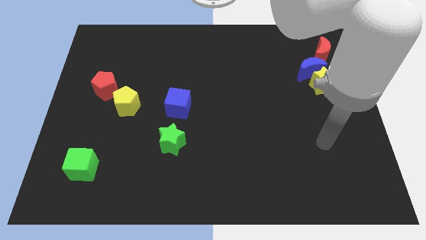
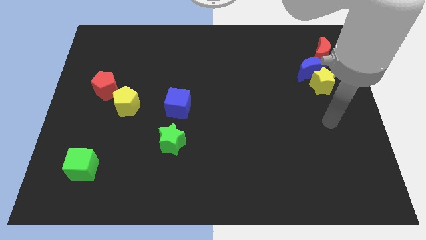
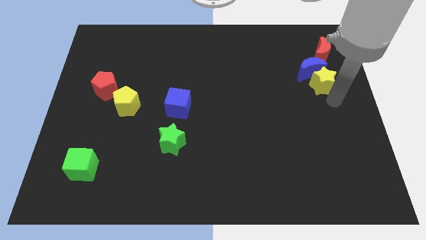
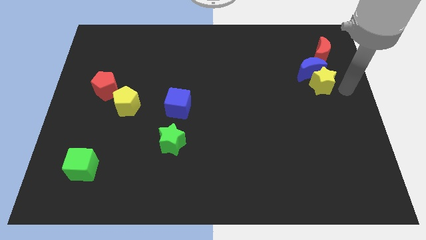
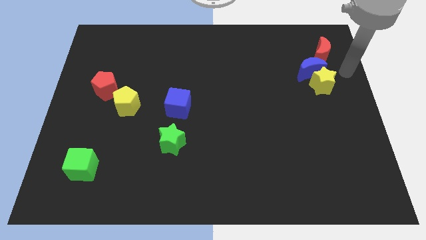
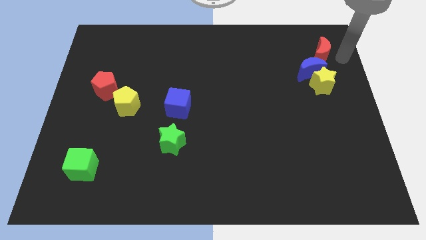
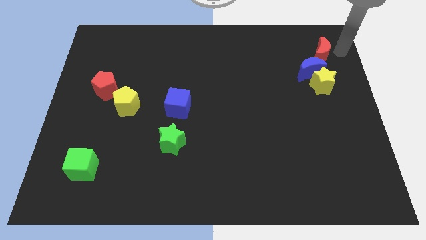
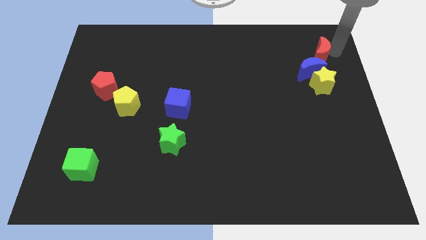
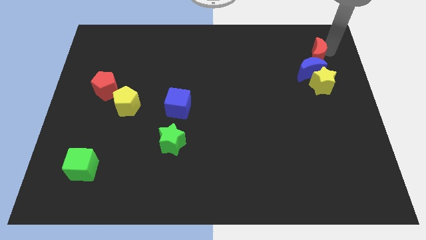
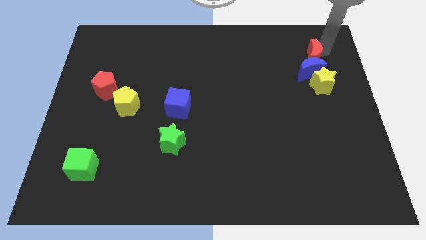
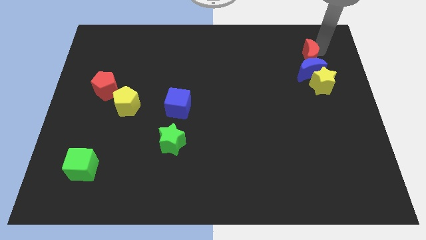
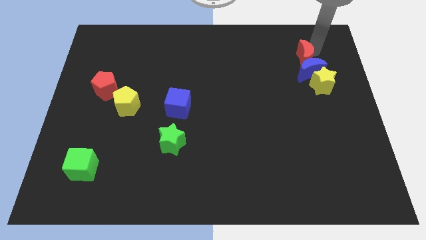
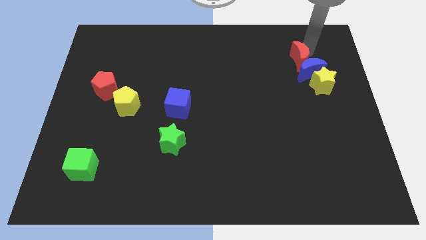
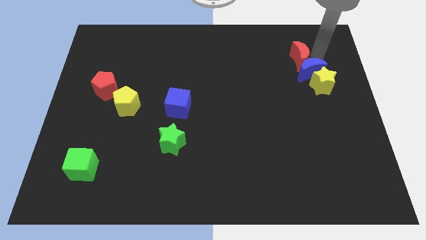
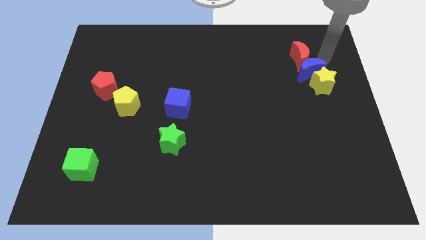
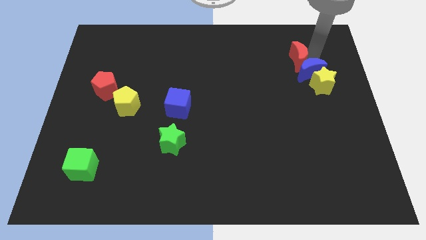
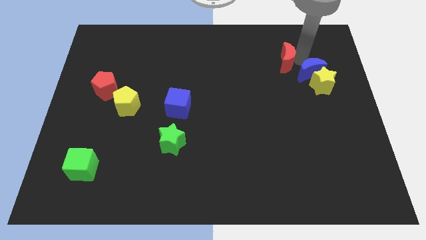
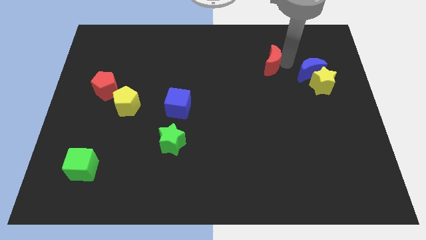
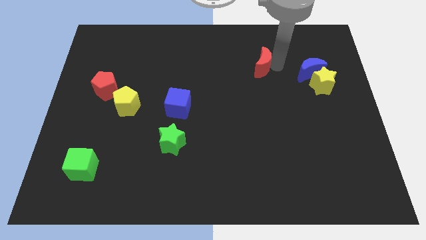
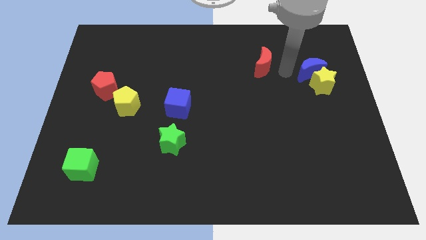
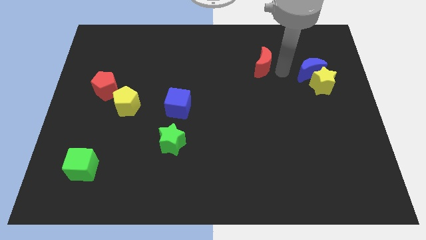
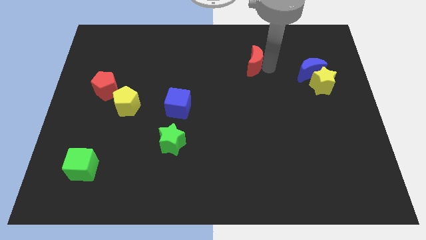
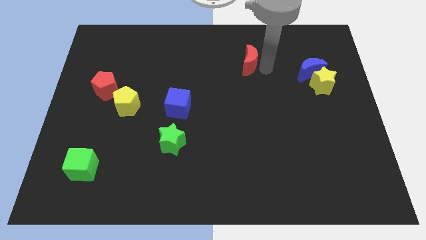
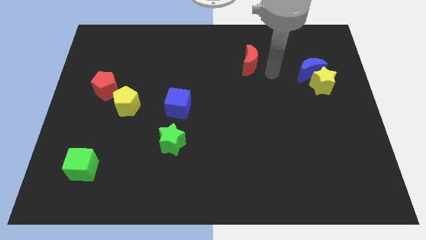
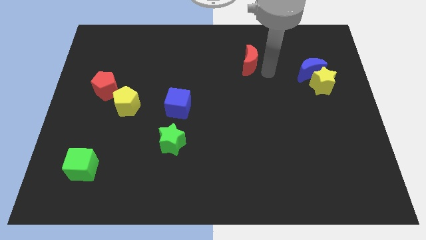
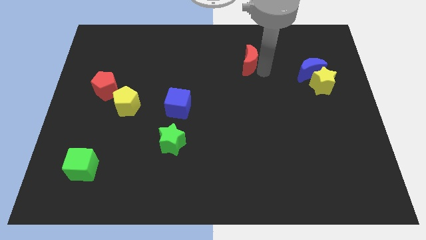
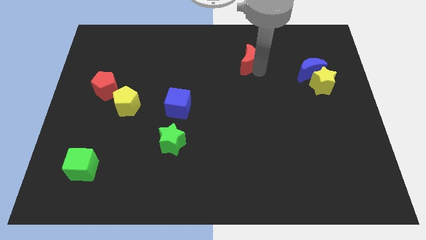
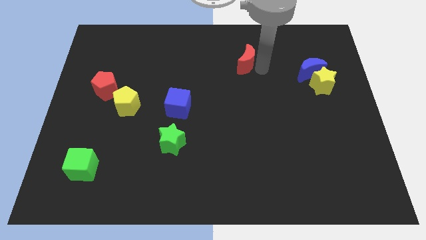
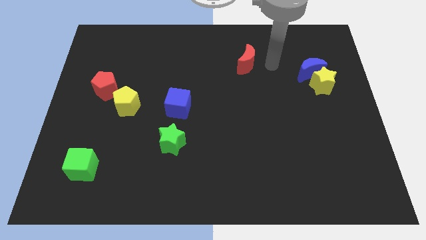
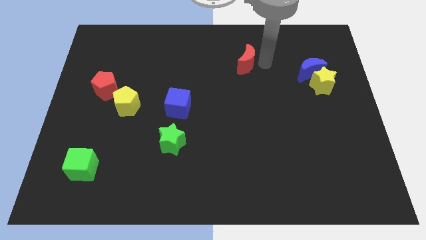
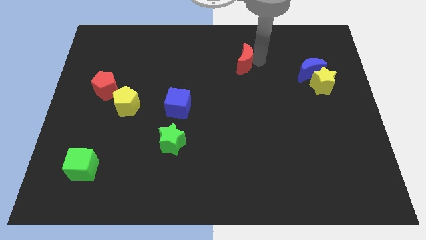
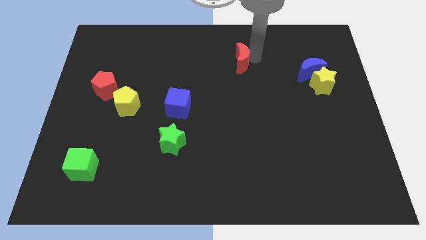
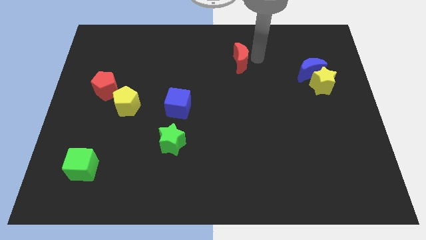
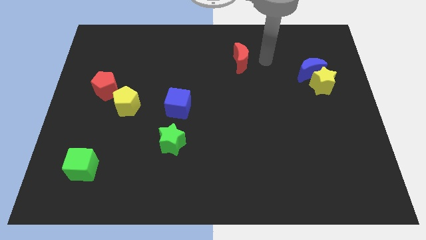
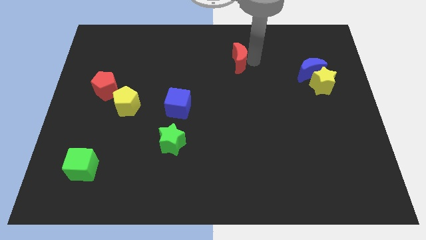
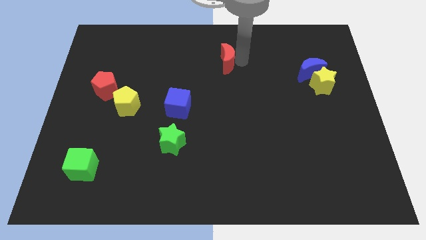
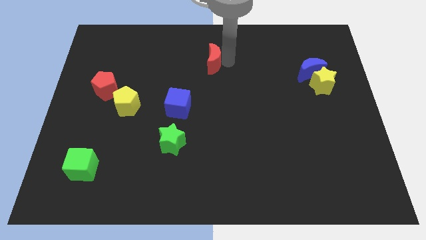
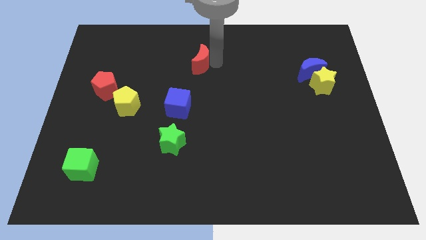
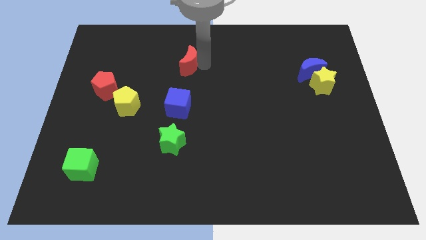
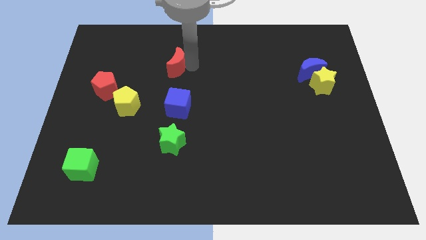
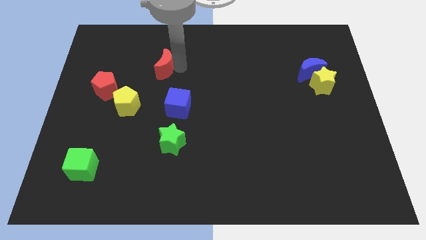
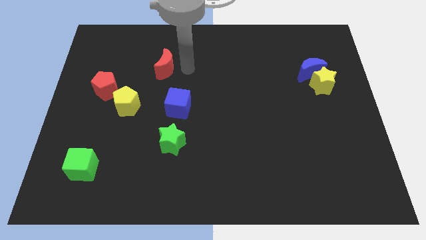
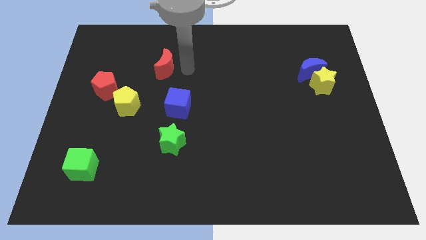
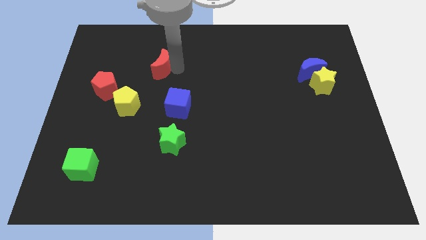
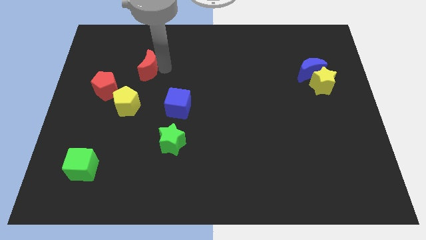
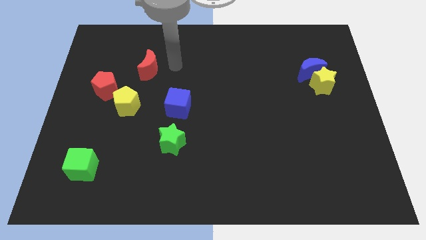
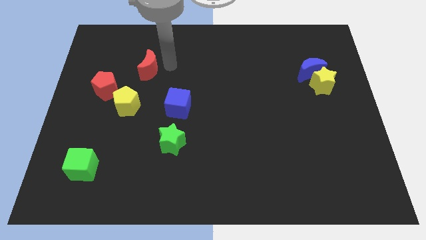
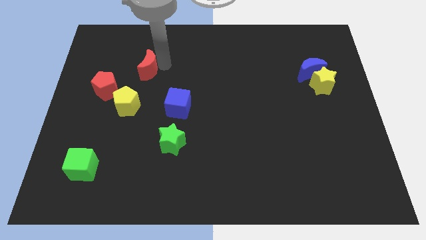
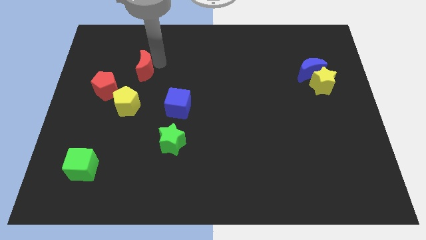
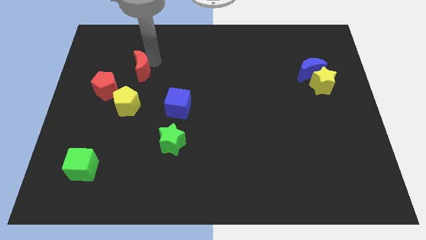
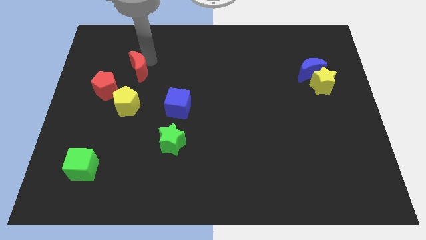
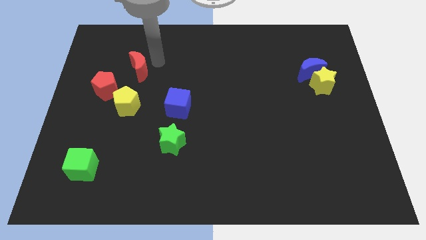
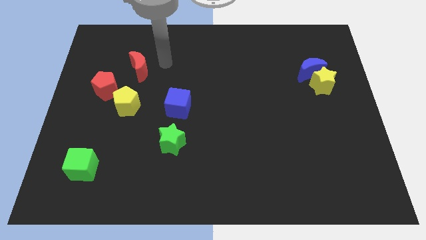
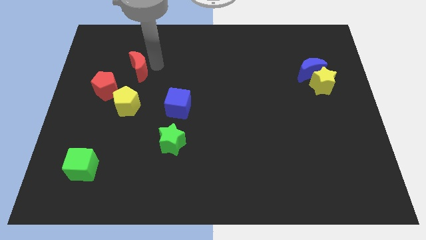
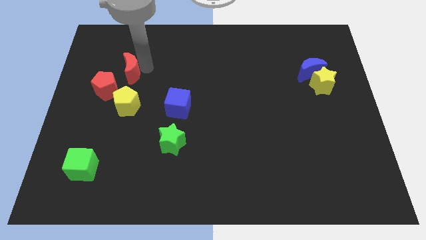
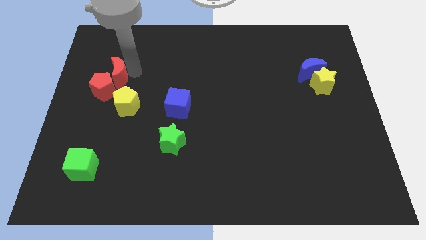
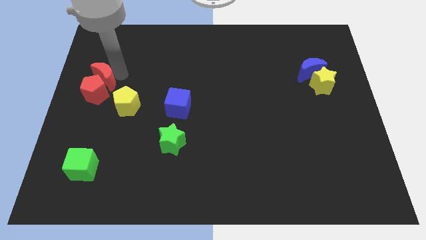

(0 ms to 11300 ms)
put the red moon to the left side of the board

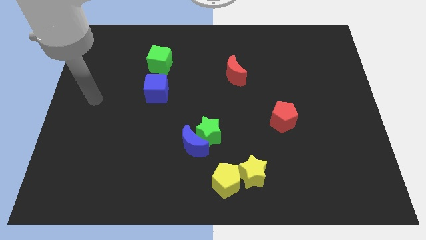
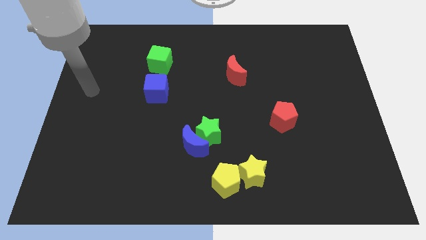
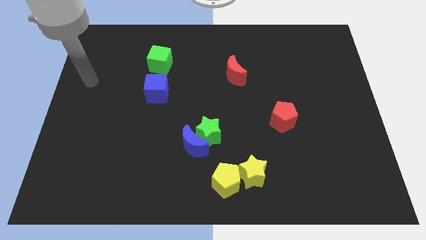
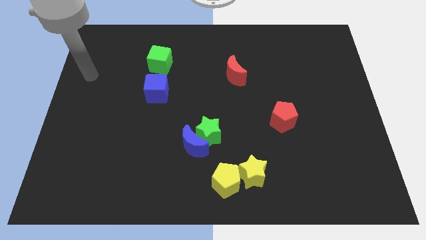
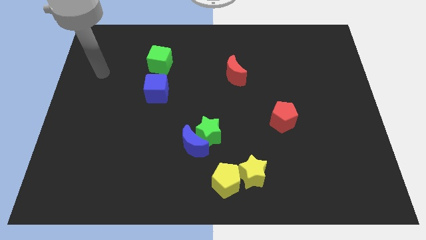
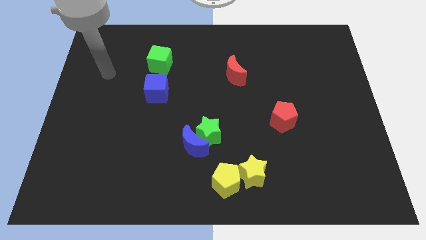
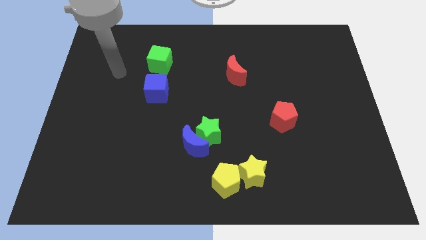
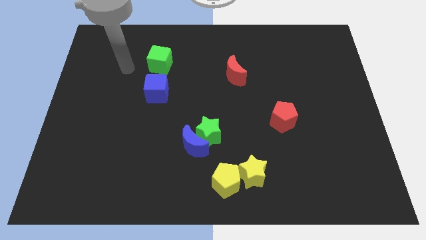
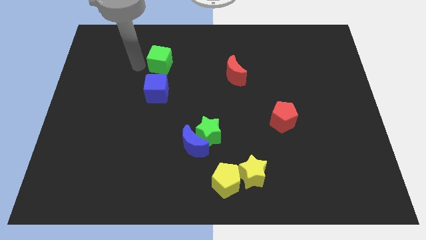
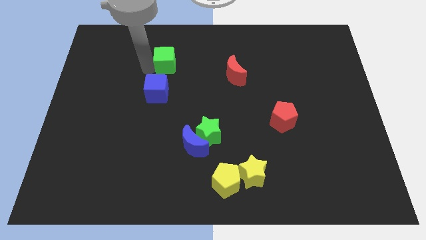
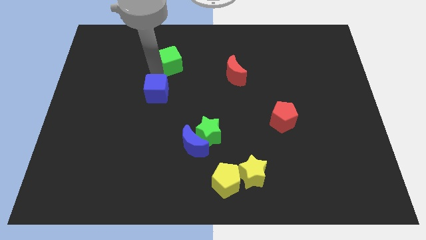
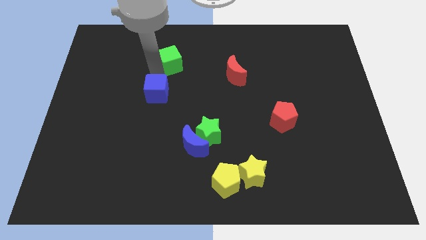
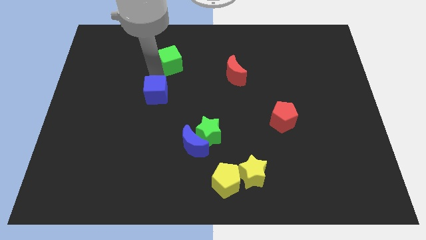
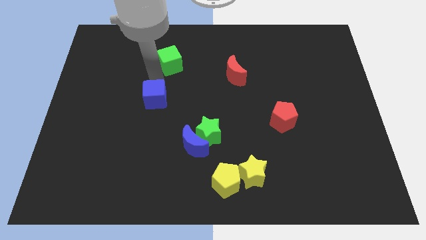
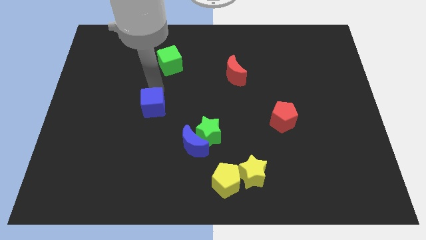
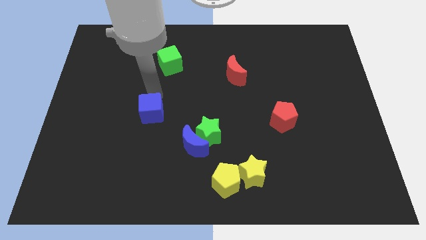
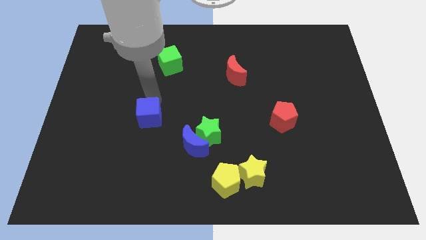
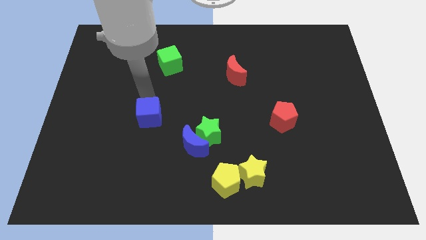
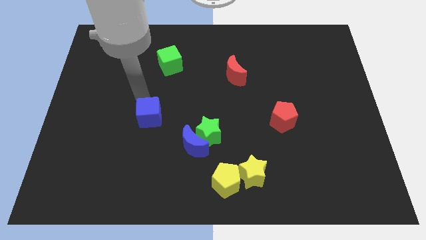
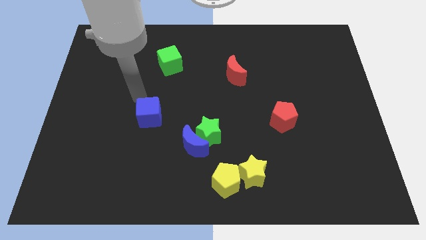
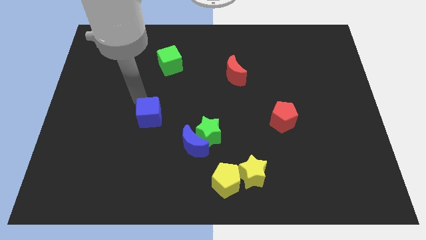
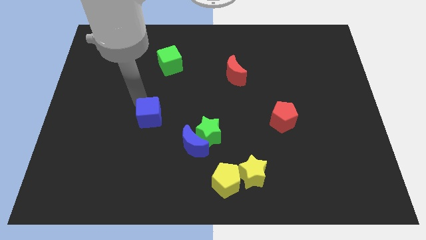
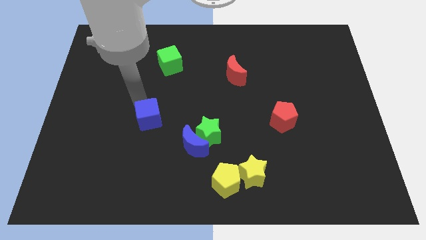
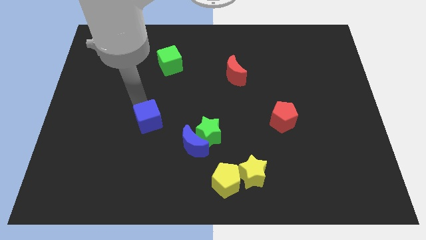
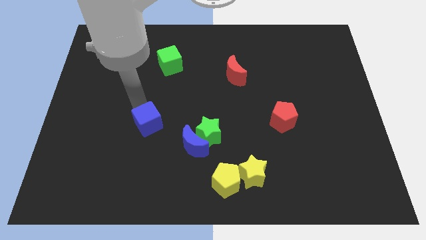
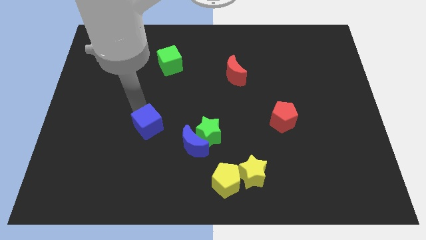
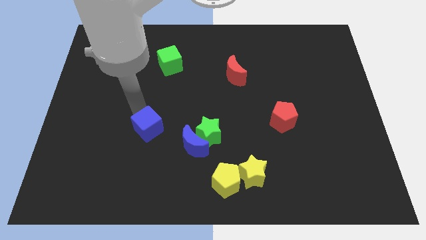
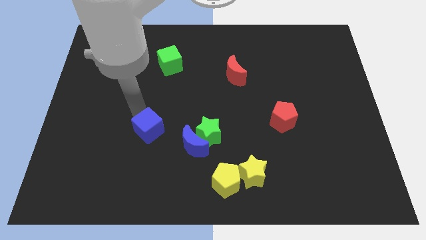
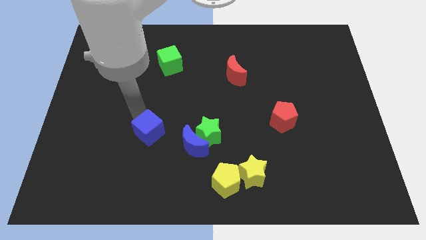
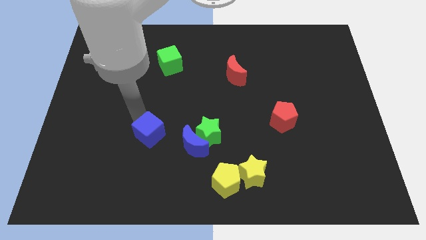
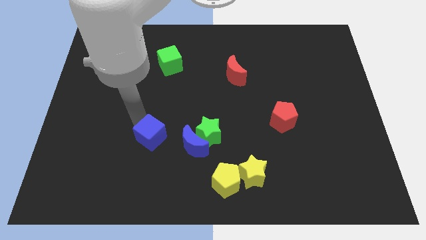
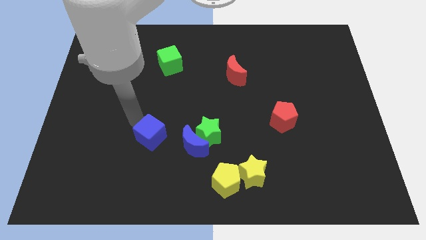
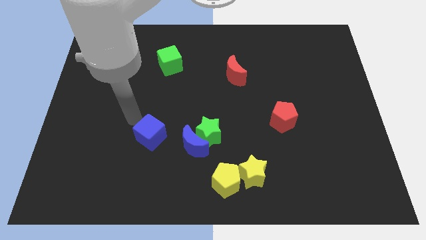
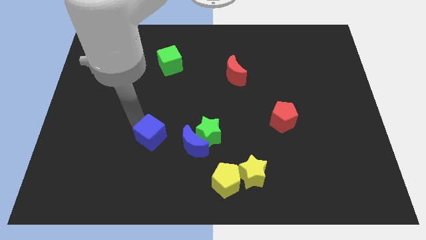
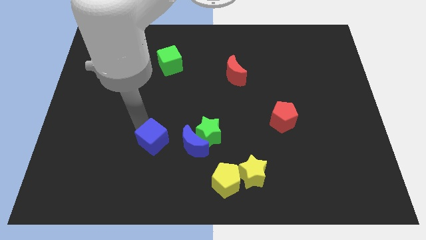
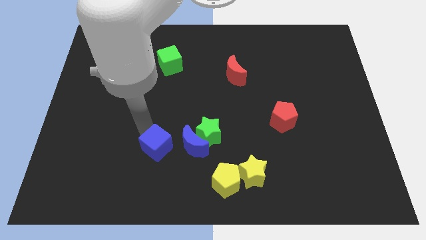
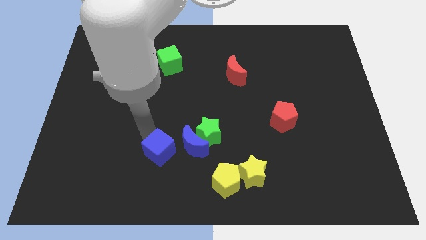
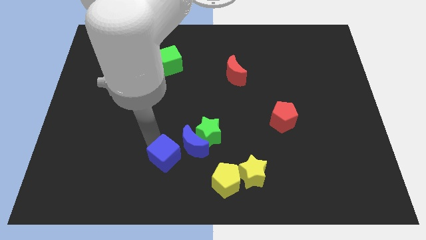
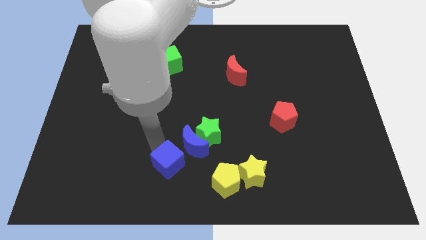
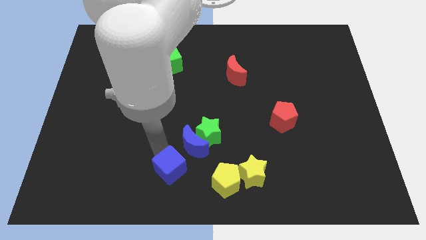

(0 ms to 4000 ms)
push the blue cube to the bottom
